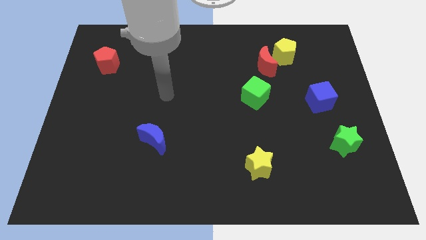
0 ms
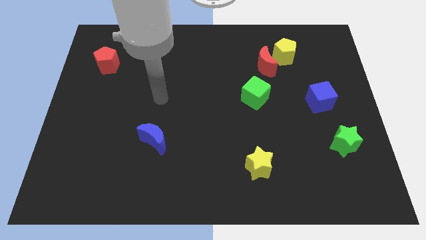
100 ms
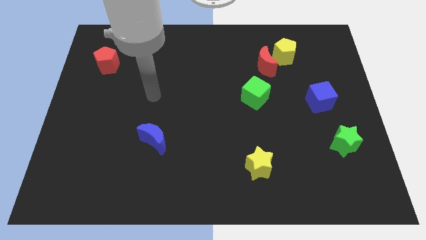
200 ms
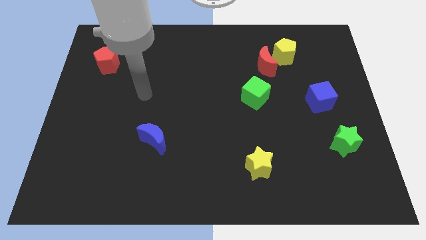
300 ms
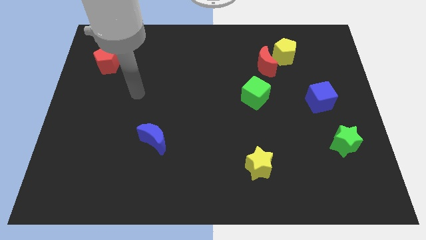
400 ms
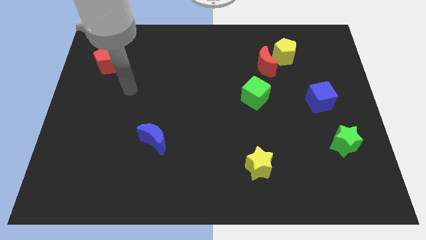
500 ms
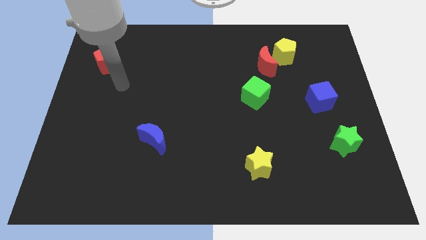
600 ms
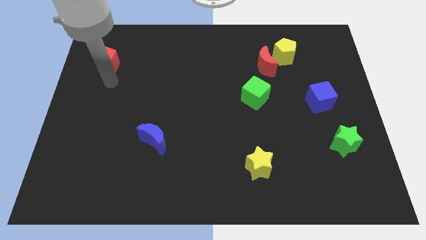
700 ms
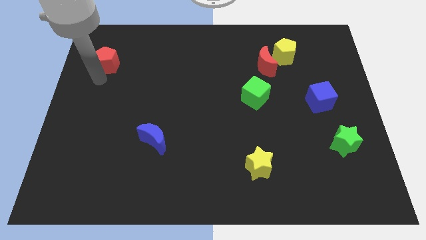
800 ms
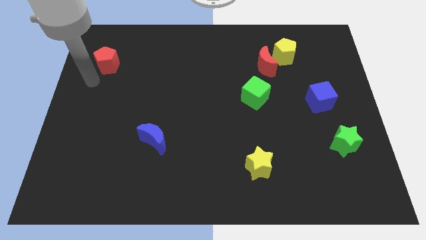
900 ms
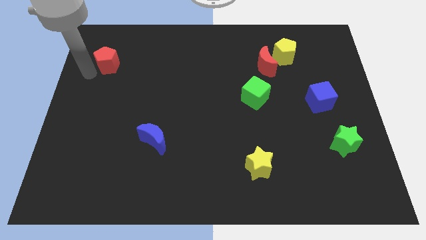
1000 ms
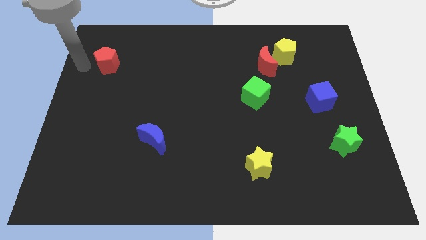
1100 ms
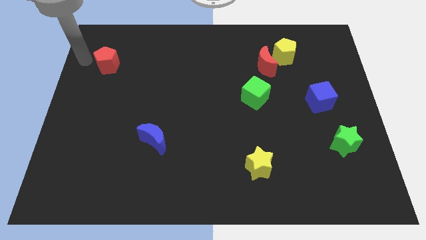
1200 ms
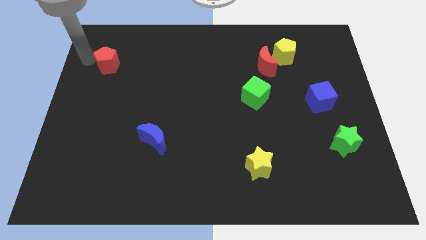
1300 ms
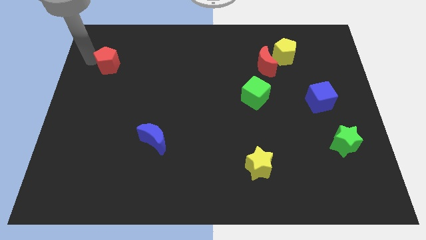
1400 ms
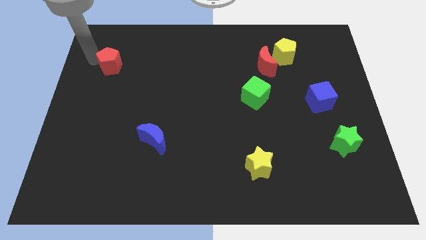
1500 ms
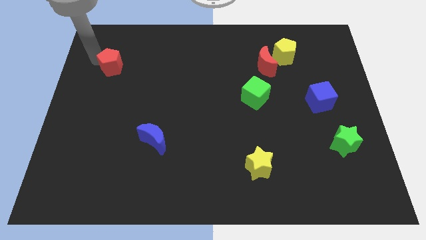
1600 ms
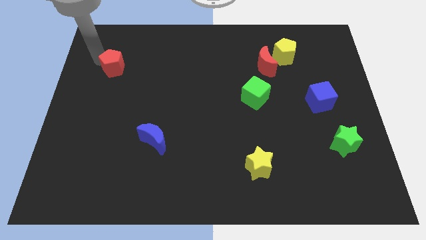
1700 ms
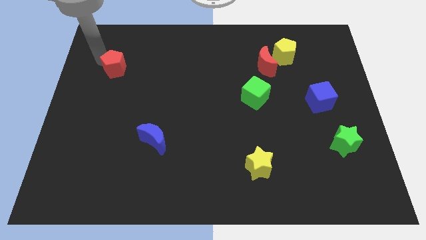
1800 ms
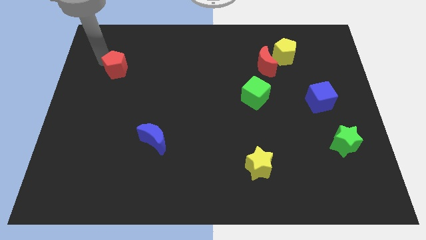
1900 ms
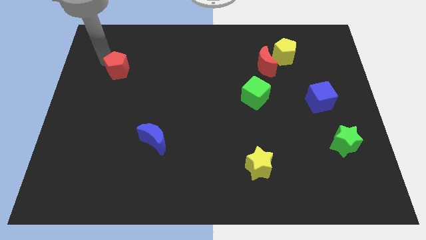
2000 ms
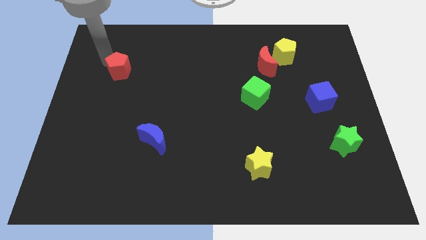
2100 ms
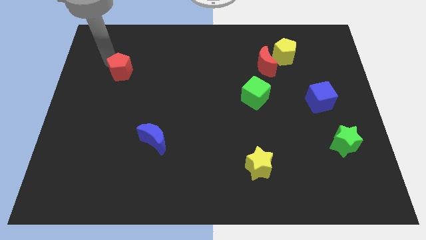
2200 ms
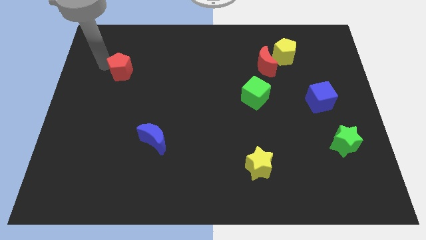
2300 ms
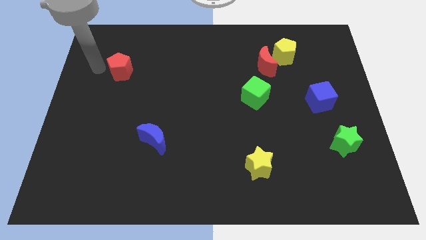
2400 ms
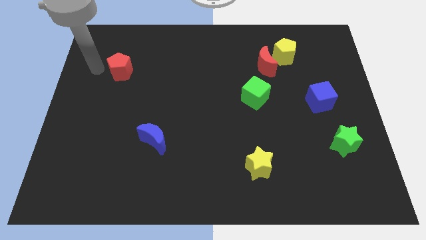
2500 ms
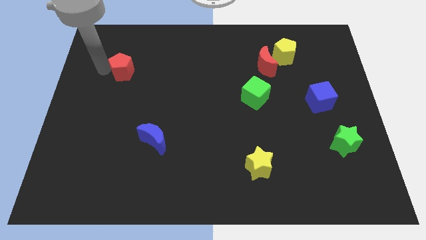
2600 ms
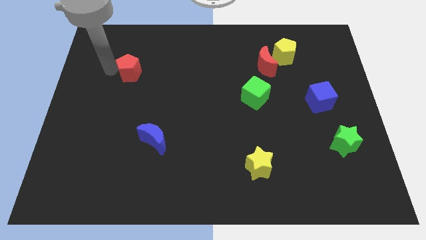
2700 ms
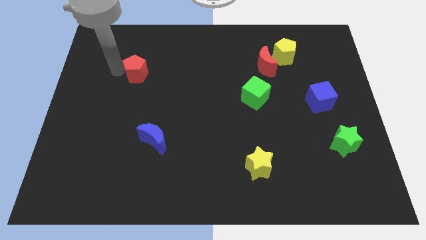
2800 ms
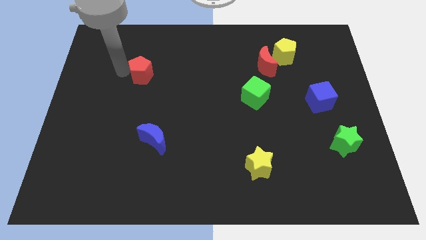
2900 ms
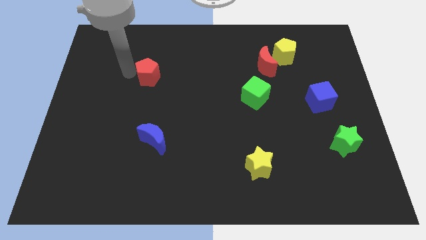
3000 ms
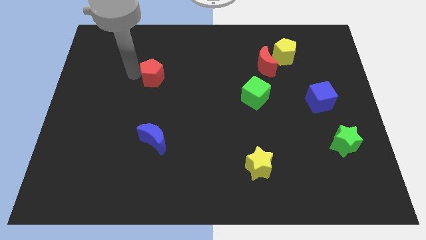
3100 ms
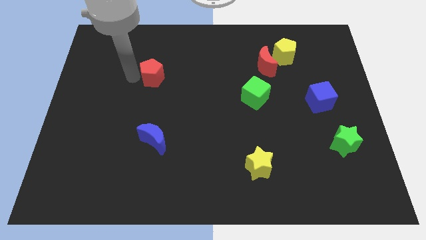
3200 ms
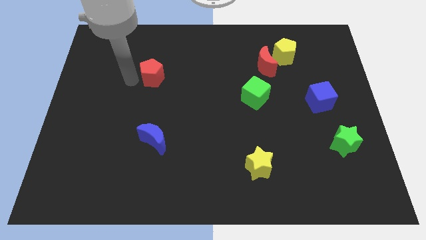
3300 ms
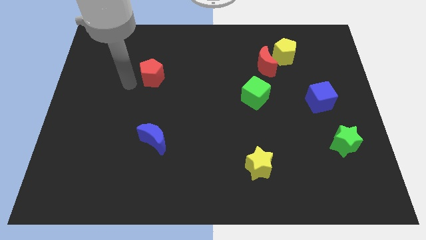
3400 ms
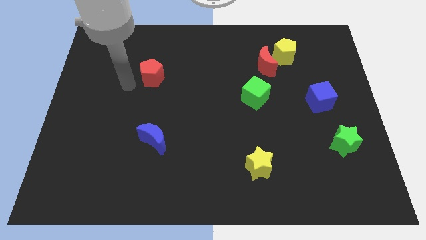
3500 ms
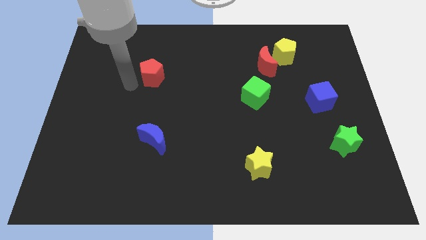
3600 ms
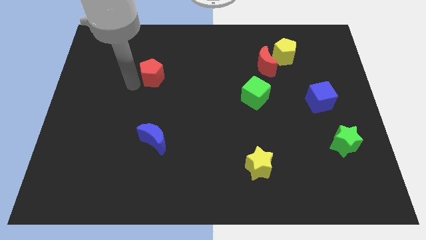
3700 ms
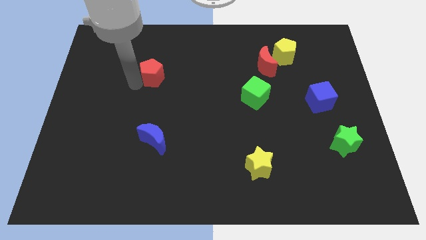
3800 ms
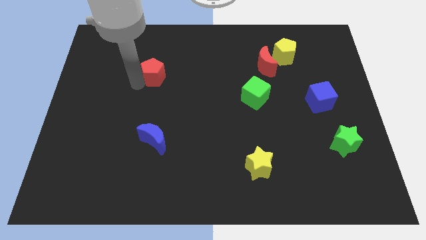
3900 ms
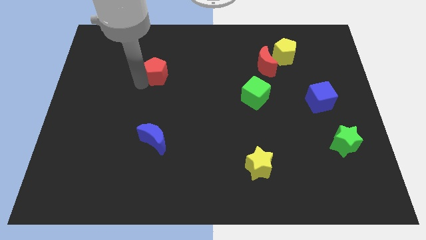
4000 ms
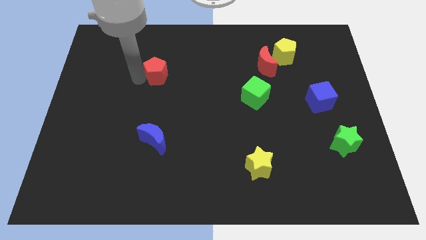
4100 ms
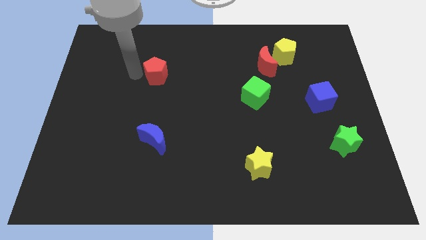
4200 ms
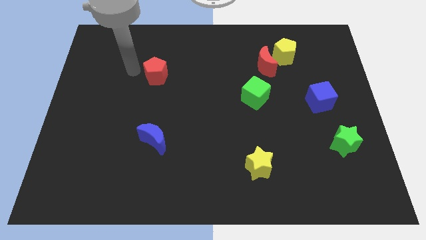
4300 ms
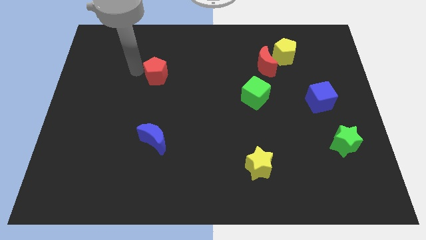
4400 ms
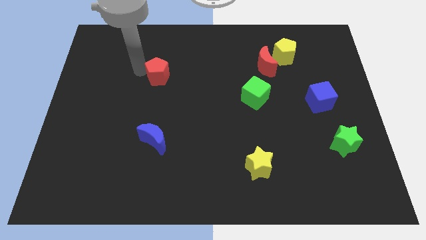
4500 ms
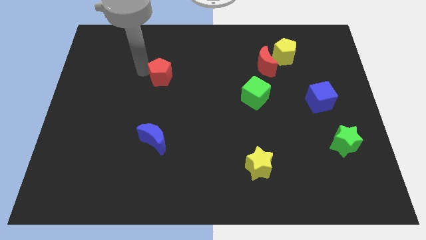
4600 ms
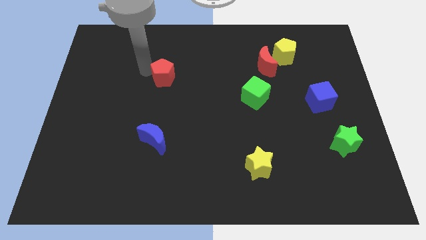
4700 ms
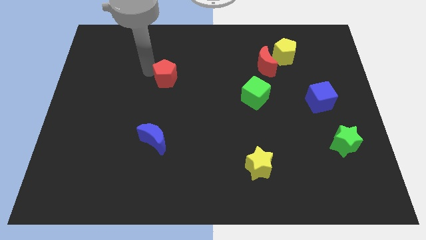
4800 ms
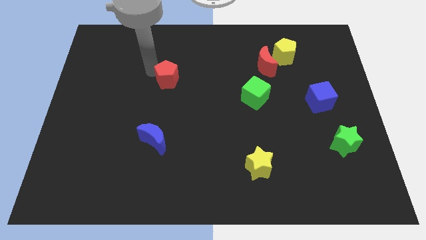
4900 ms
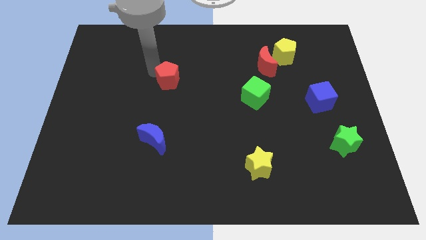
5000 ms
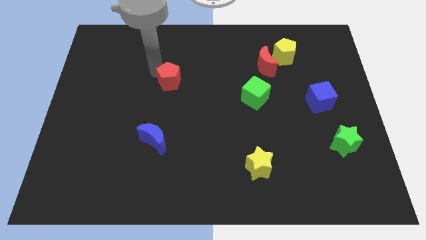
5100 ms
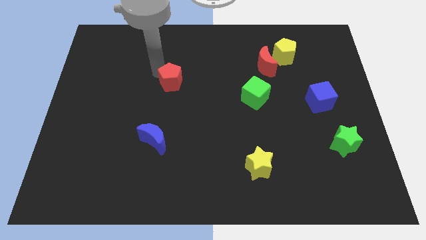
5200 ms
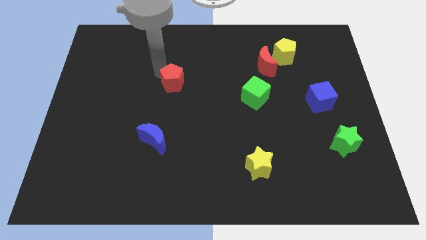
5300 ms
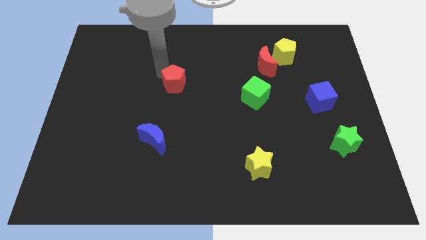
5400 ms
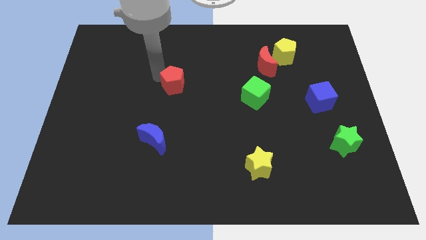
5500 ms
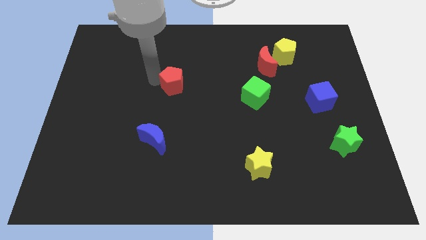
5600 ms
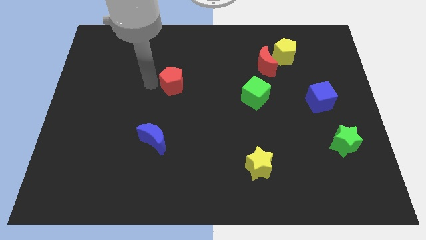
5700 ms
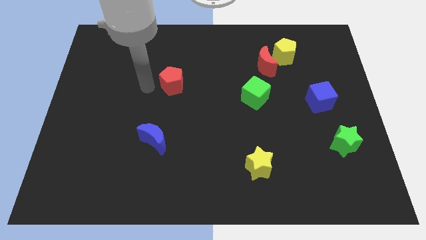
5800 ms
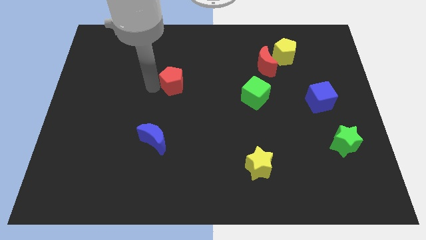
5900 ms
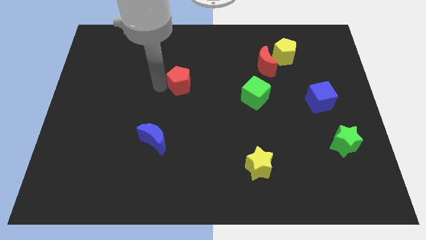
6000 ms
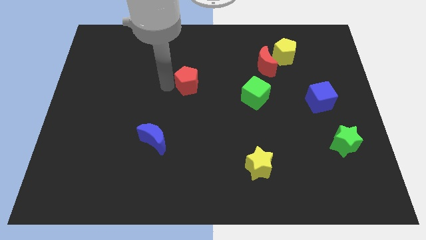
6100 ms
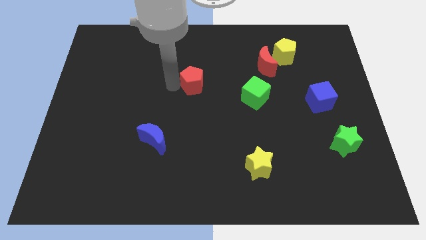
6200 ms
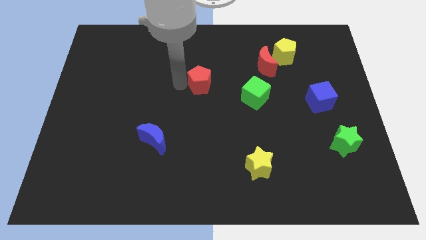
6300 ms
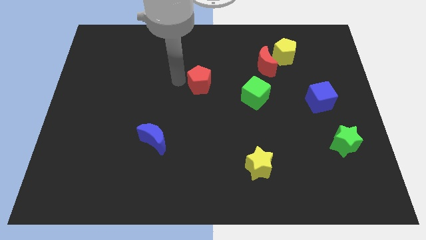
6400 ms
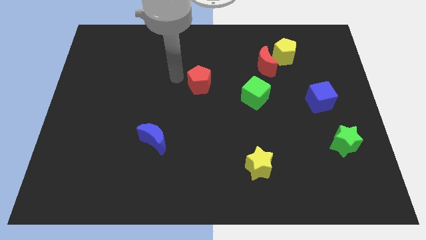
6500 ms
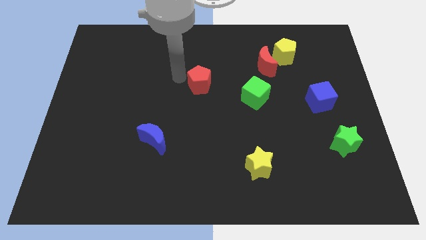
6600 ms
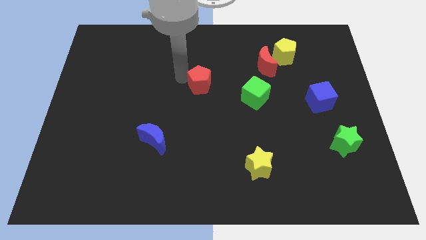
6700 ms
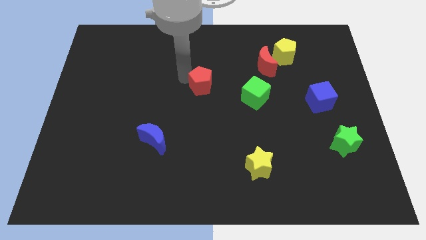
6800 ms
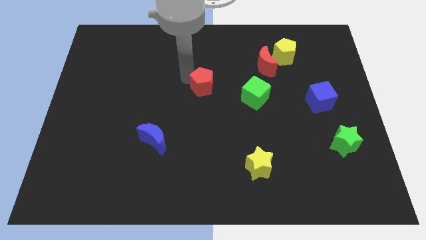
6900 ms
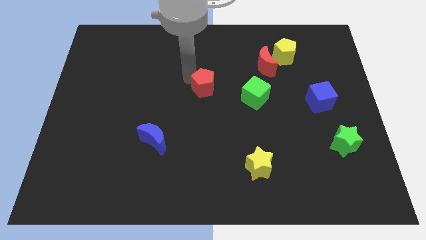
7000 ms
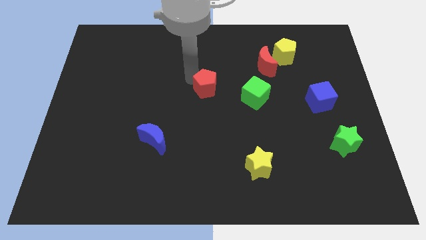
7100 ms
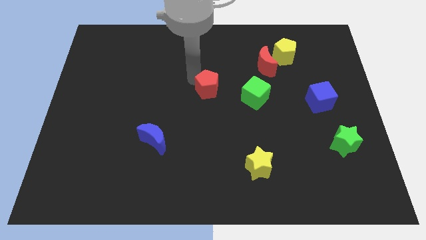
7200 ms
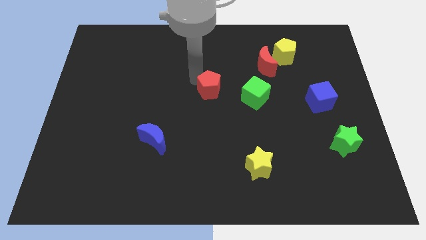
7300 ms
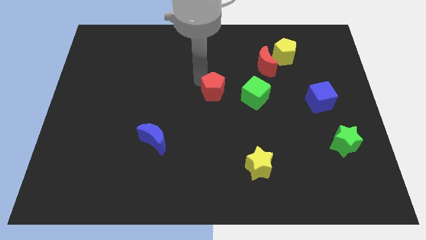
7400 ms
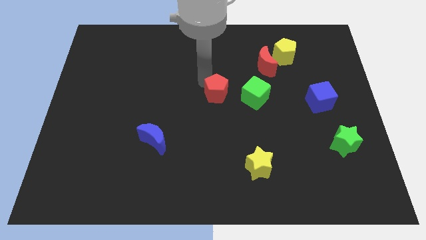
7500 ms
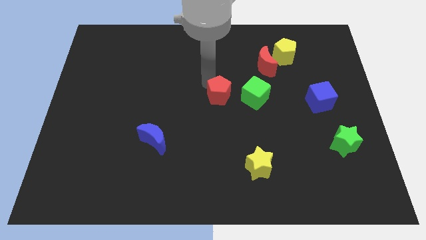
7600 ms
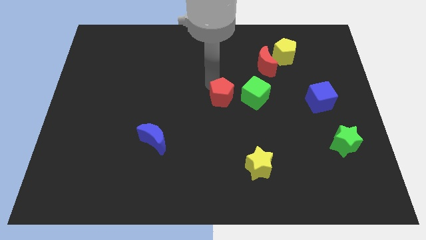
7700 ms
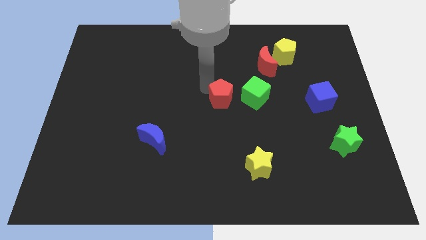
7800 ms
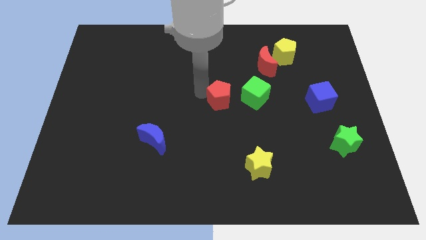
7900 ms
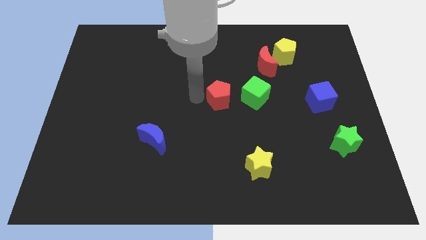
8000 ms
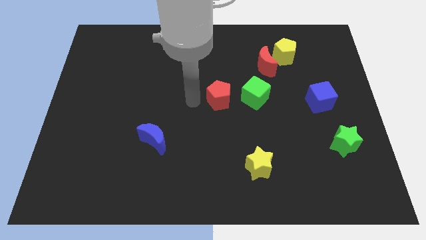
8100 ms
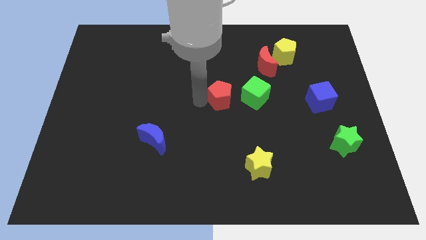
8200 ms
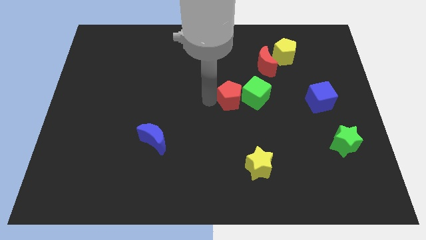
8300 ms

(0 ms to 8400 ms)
slide the red pentagon next to the green cube
